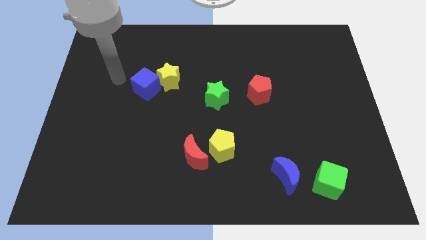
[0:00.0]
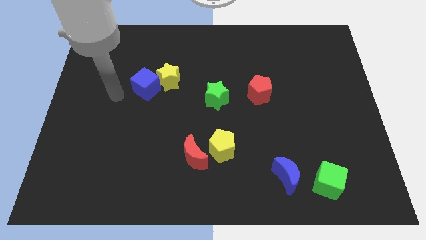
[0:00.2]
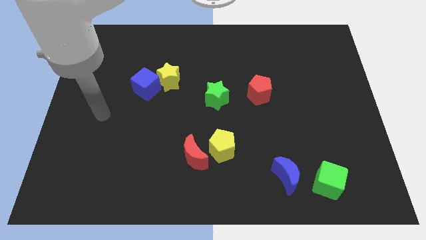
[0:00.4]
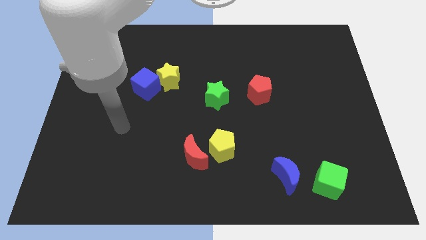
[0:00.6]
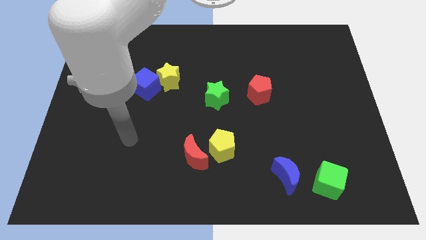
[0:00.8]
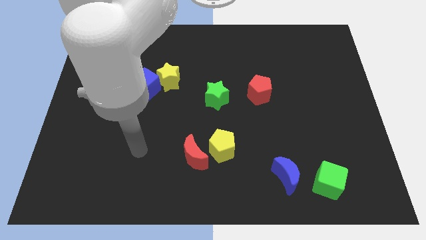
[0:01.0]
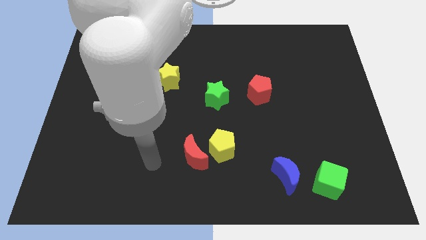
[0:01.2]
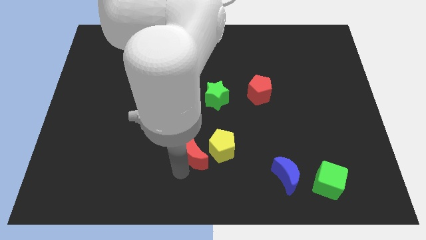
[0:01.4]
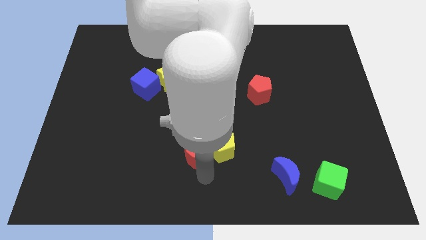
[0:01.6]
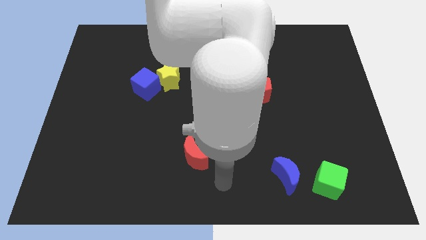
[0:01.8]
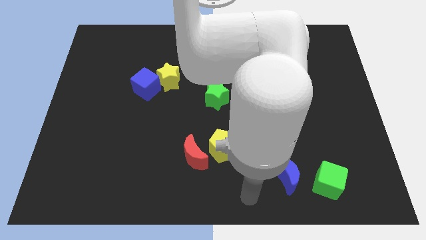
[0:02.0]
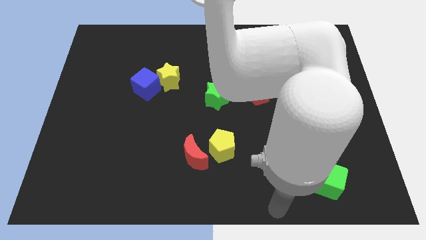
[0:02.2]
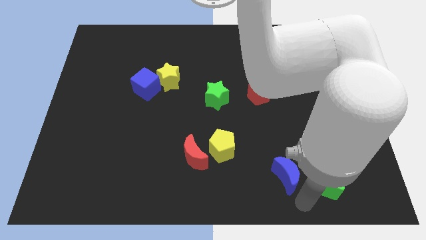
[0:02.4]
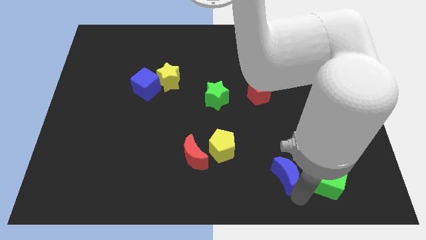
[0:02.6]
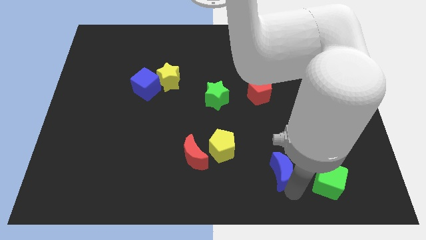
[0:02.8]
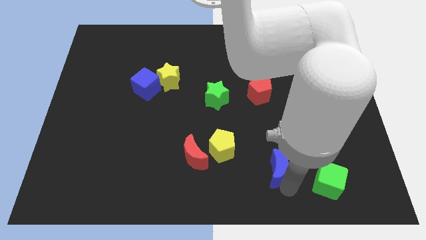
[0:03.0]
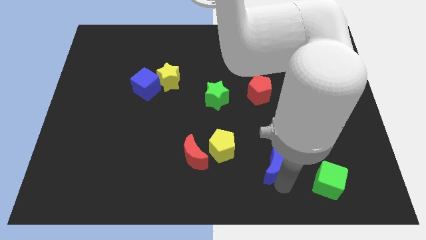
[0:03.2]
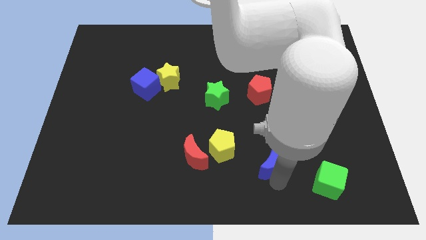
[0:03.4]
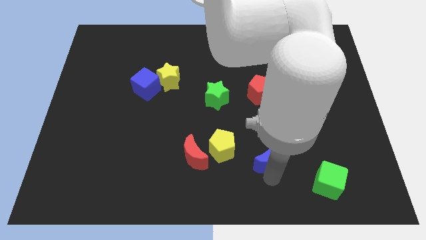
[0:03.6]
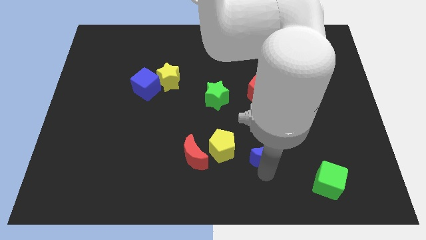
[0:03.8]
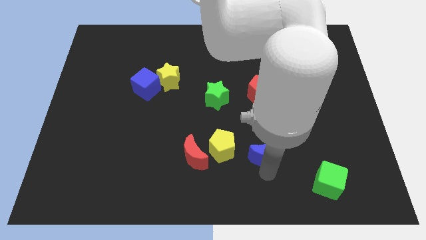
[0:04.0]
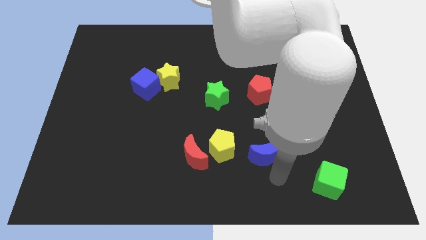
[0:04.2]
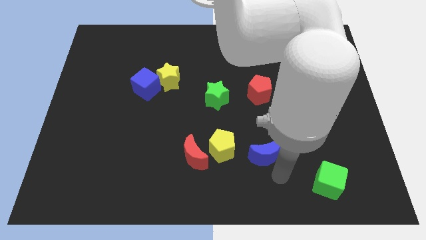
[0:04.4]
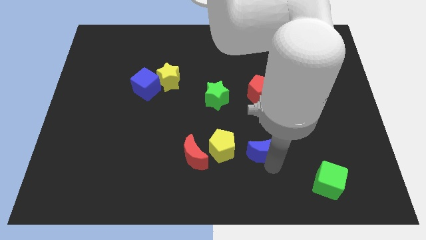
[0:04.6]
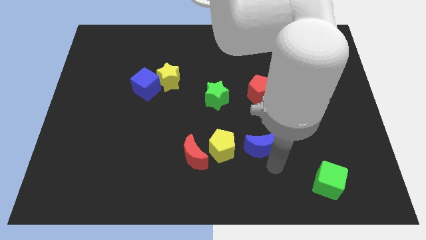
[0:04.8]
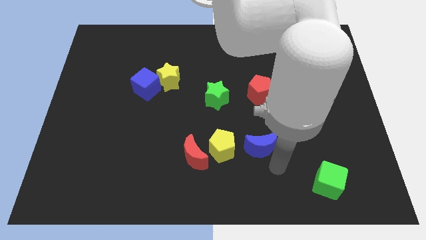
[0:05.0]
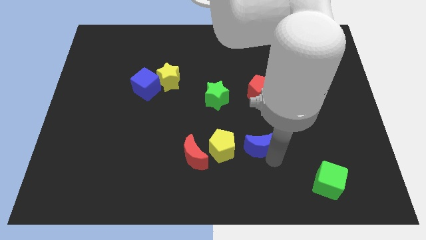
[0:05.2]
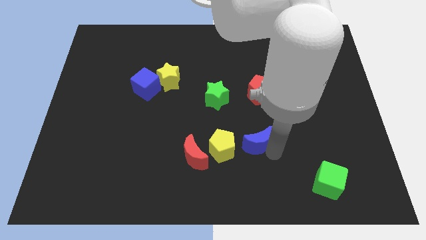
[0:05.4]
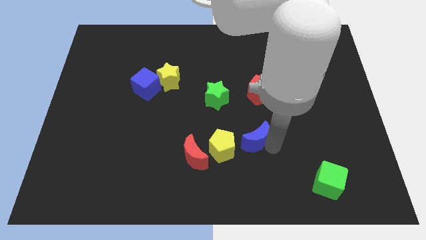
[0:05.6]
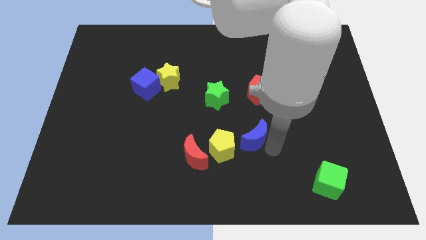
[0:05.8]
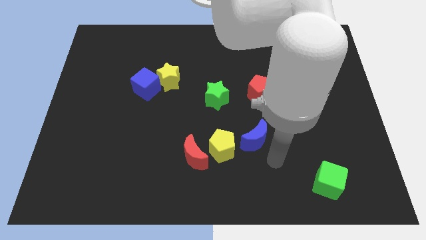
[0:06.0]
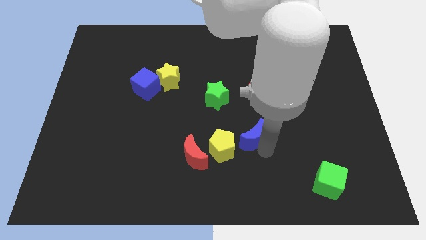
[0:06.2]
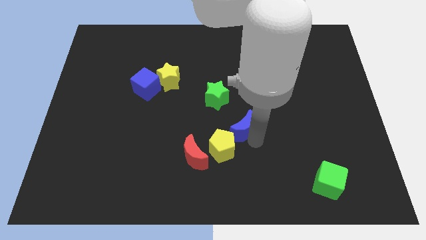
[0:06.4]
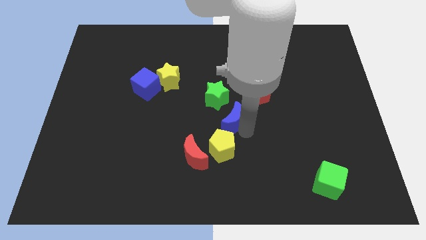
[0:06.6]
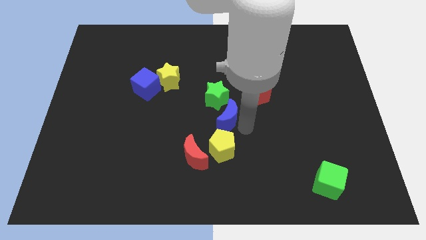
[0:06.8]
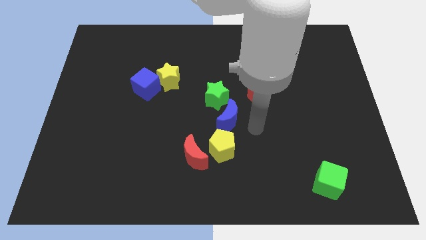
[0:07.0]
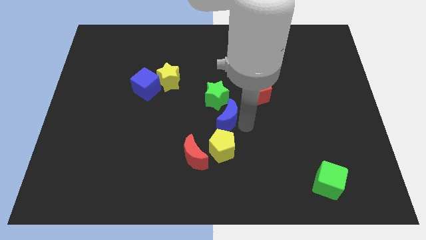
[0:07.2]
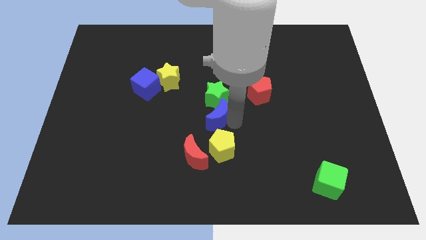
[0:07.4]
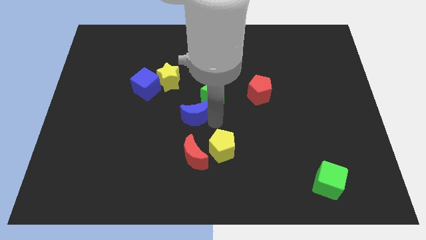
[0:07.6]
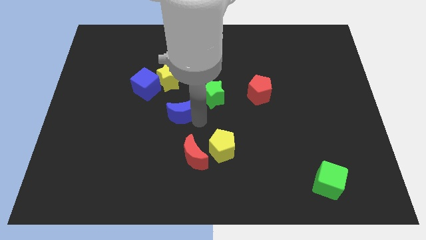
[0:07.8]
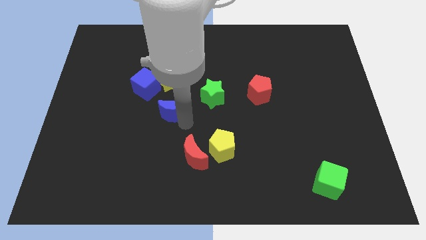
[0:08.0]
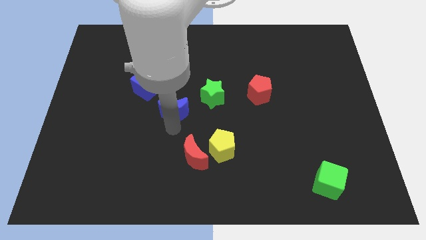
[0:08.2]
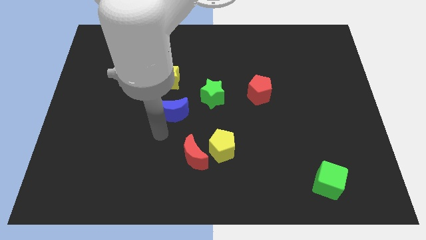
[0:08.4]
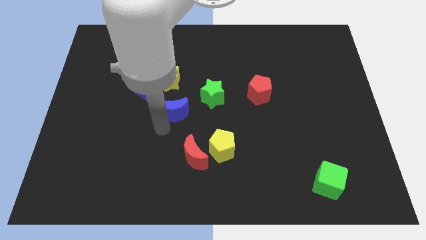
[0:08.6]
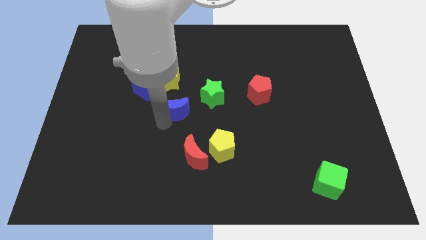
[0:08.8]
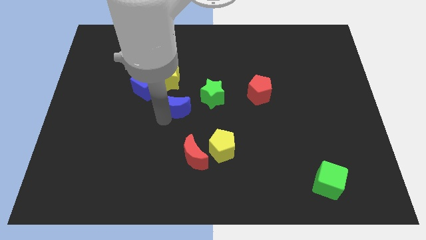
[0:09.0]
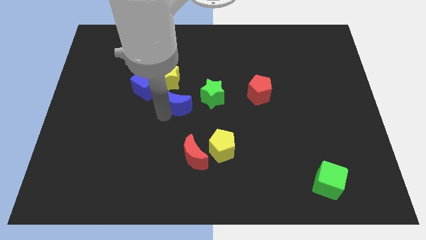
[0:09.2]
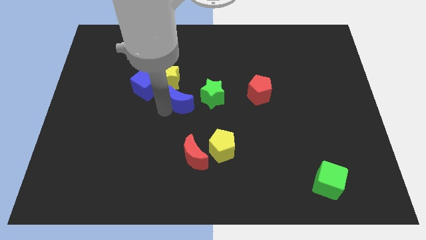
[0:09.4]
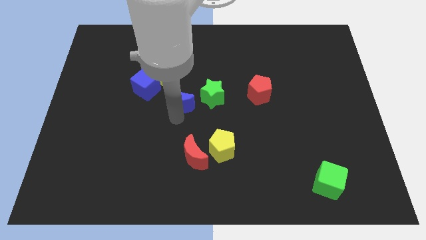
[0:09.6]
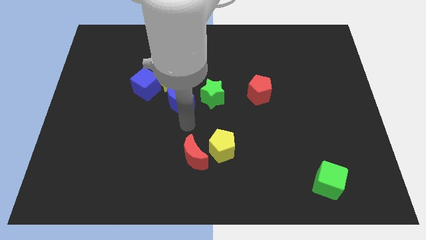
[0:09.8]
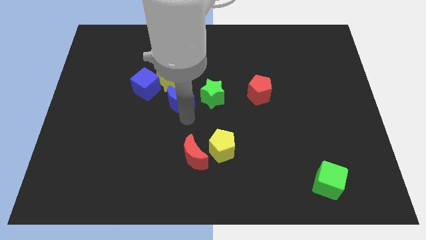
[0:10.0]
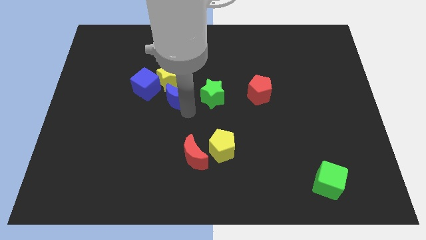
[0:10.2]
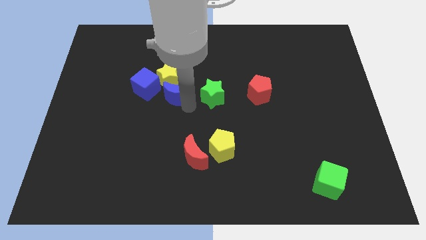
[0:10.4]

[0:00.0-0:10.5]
slide the blue moon close to the yellow star

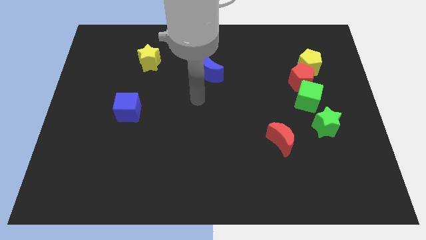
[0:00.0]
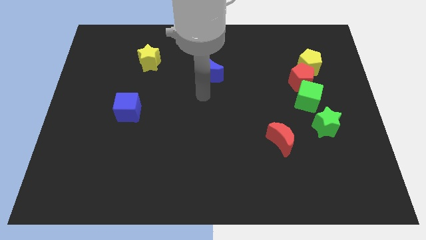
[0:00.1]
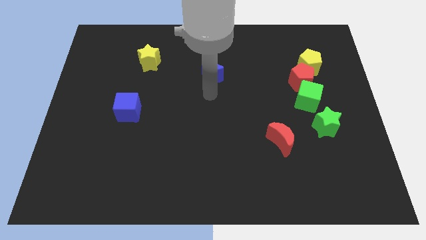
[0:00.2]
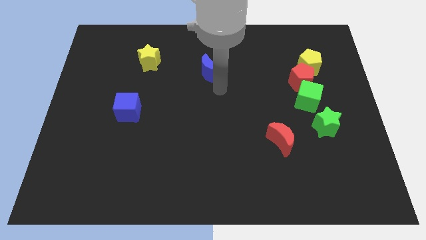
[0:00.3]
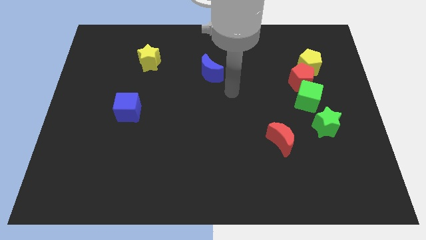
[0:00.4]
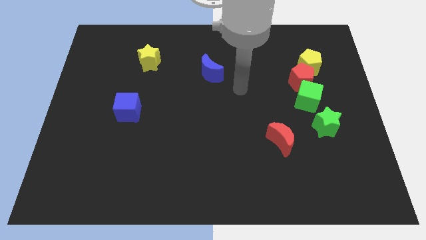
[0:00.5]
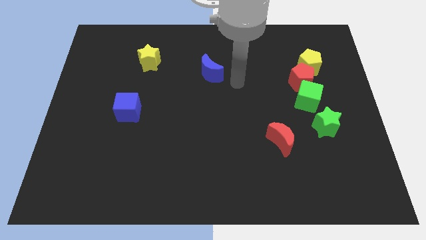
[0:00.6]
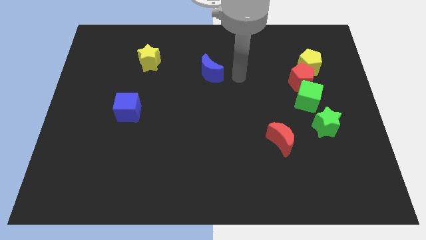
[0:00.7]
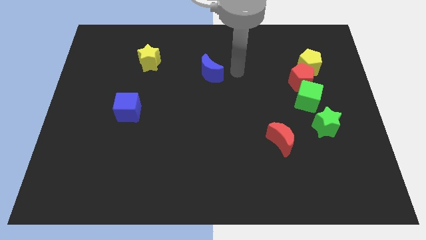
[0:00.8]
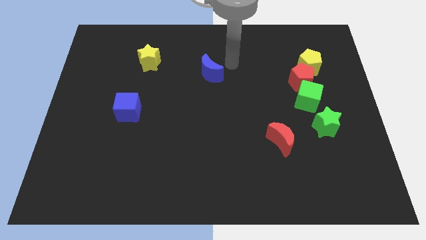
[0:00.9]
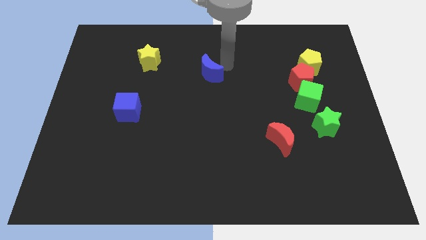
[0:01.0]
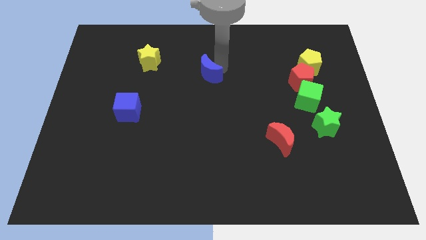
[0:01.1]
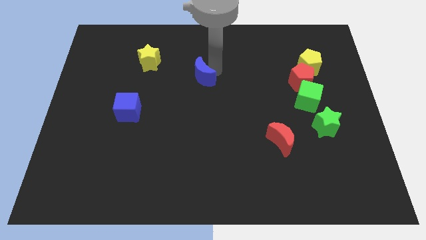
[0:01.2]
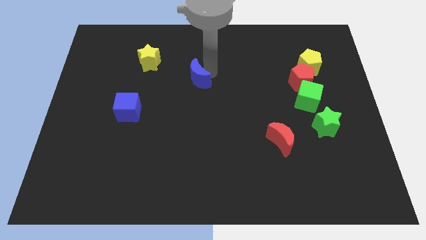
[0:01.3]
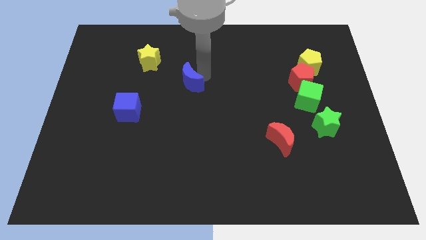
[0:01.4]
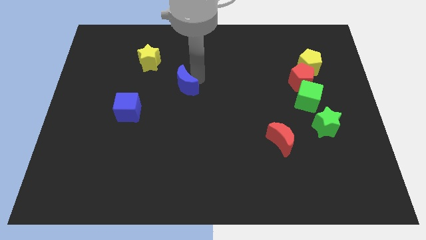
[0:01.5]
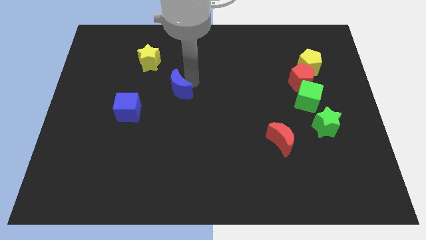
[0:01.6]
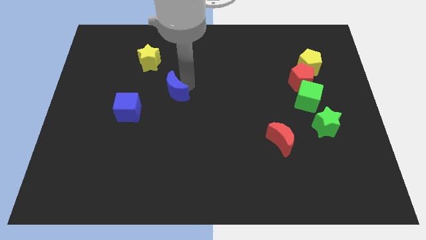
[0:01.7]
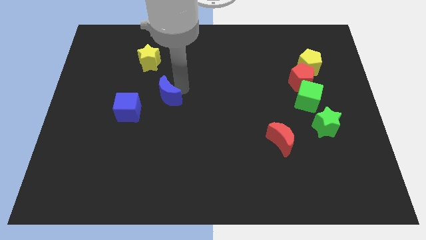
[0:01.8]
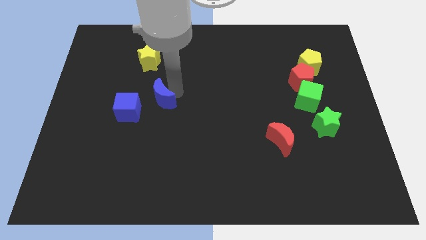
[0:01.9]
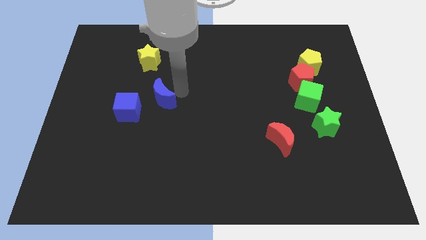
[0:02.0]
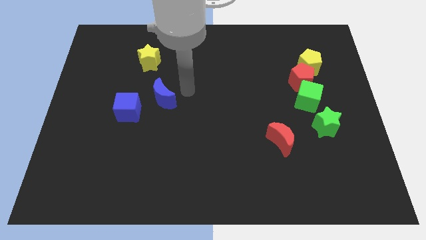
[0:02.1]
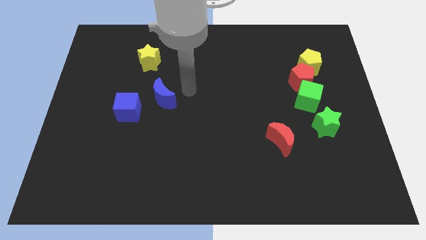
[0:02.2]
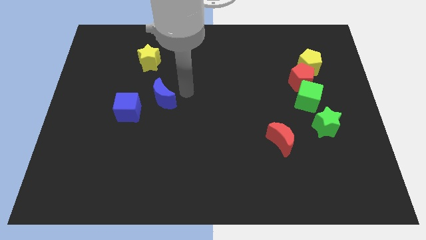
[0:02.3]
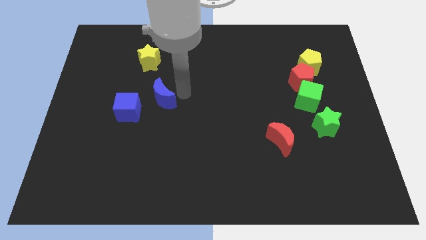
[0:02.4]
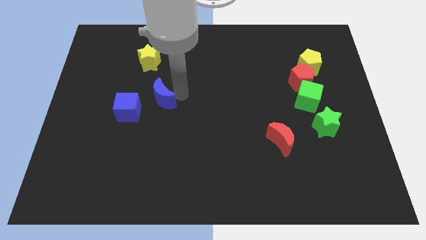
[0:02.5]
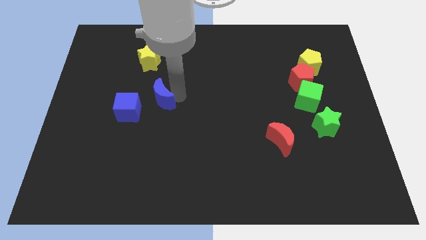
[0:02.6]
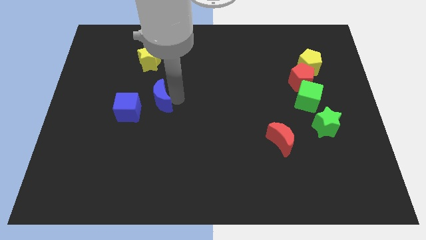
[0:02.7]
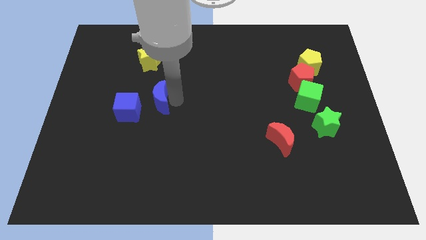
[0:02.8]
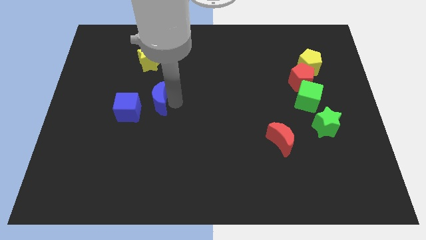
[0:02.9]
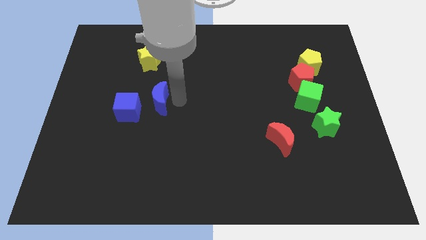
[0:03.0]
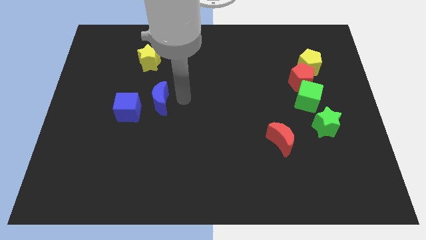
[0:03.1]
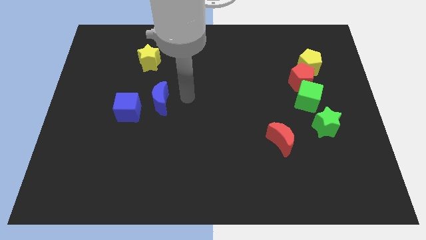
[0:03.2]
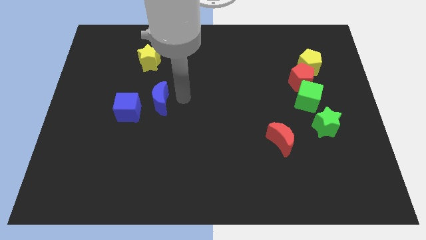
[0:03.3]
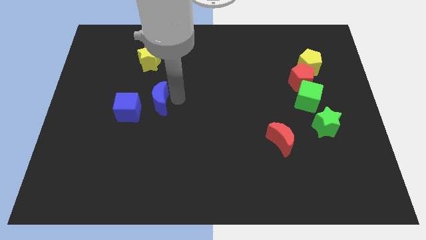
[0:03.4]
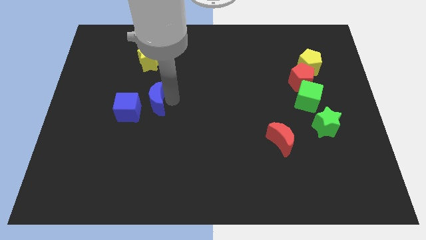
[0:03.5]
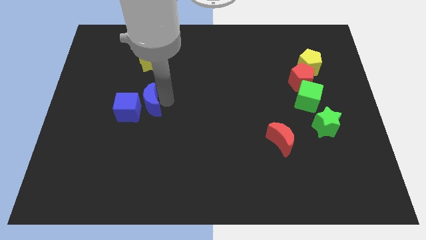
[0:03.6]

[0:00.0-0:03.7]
slide the blue moon close to the blue cube
